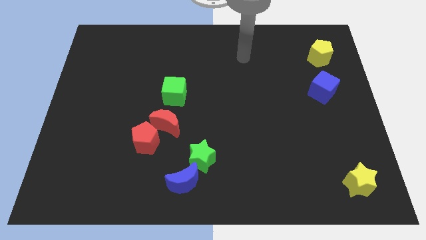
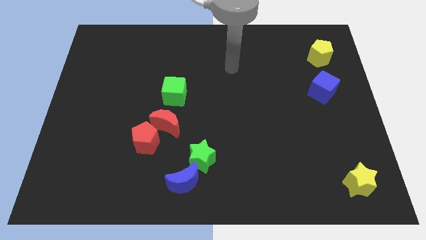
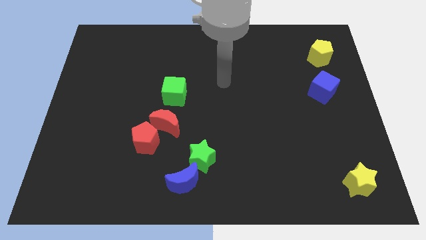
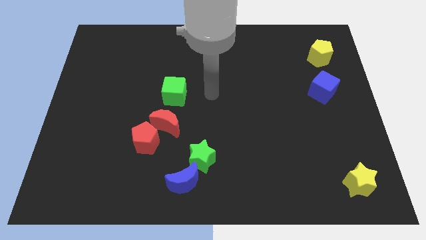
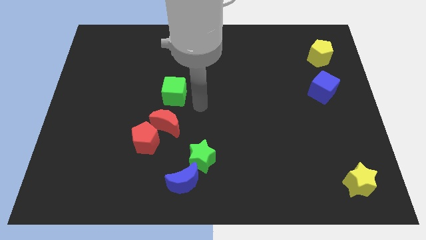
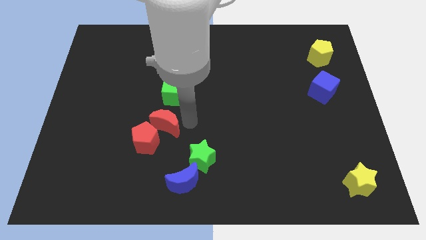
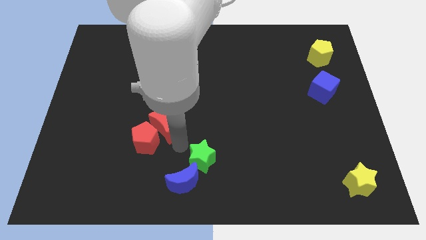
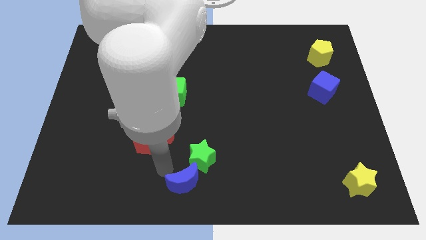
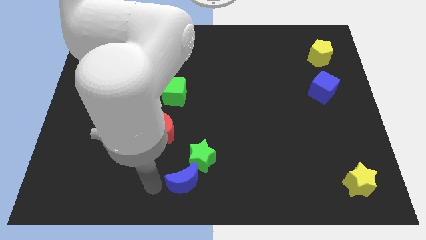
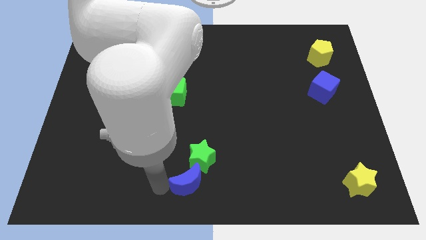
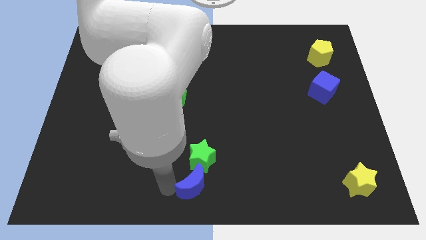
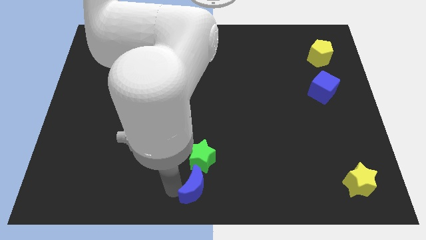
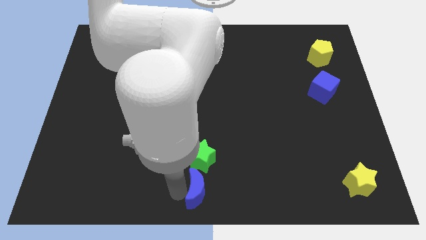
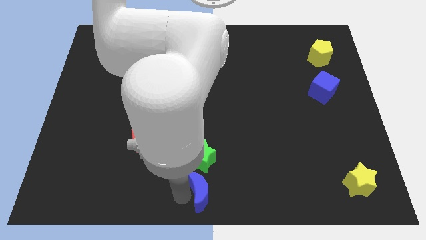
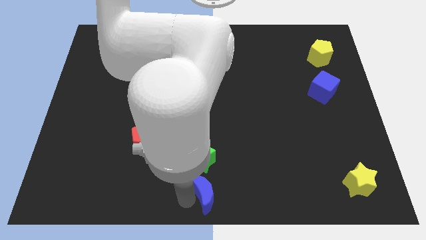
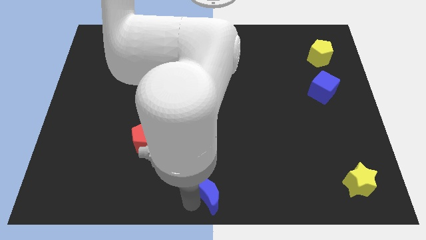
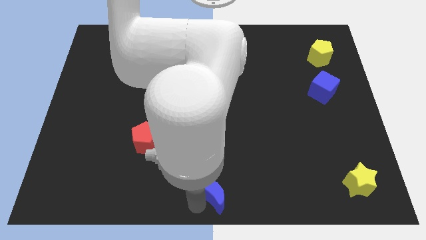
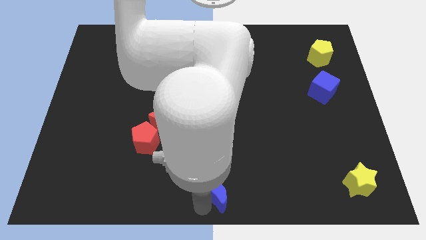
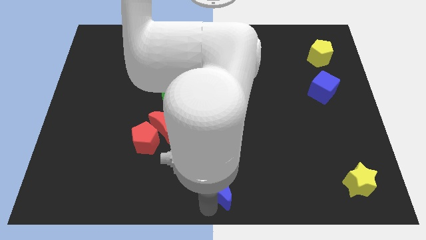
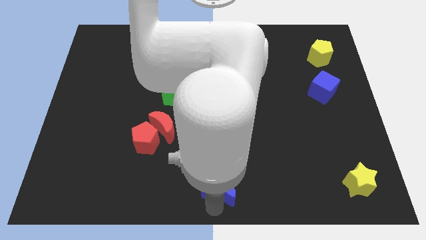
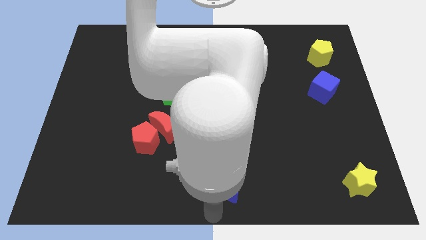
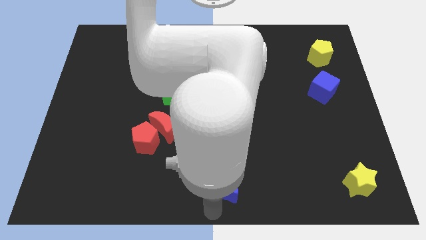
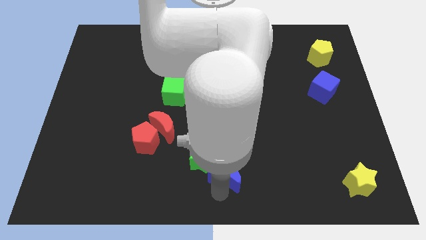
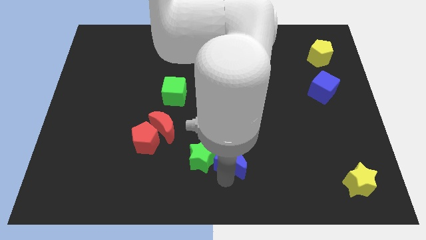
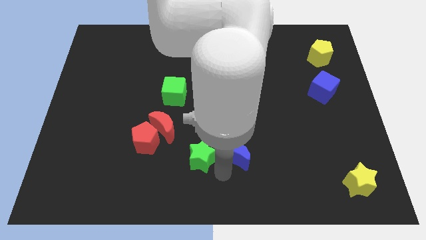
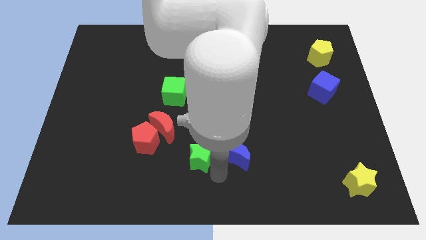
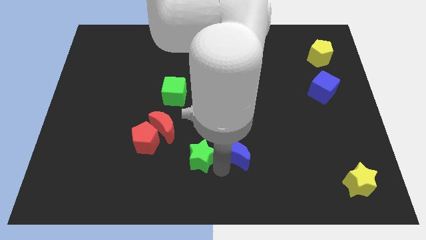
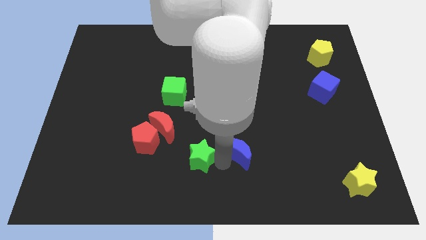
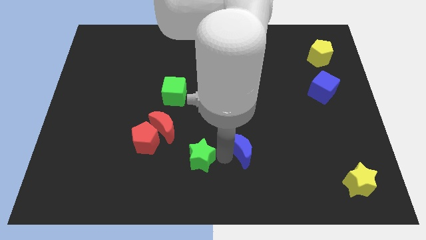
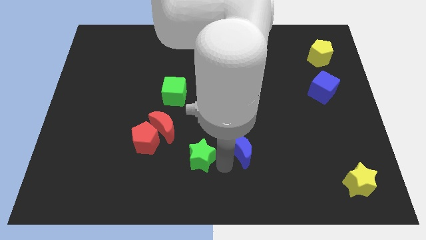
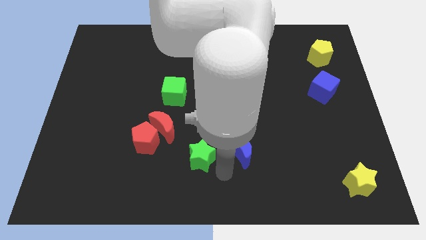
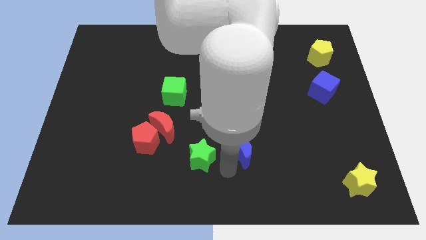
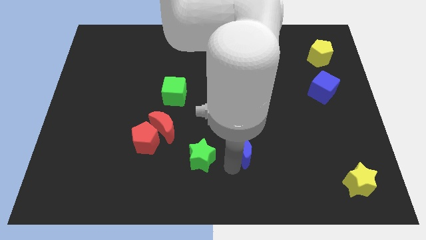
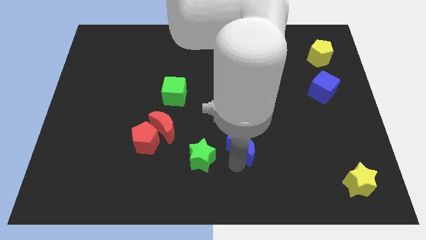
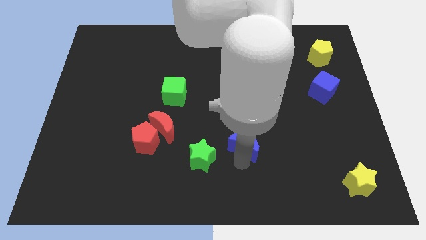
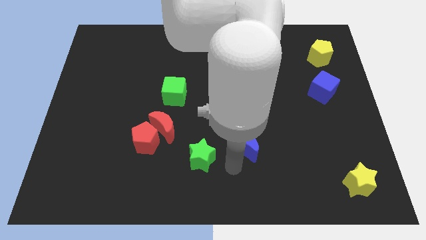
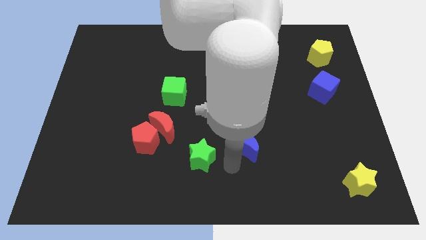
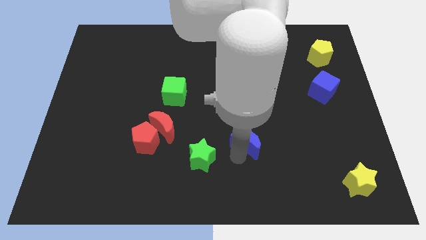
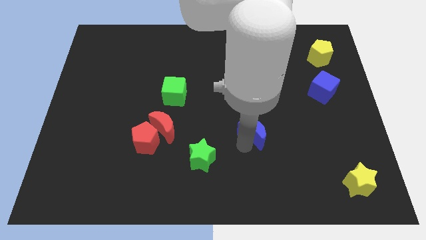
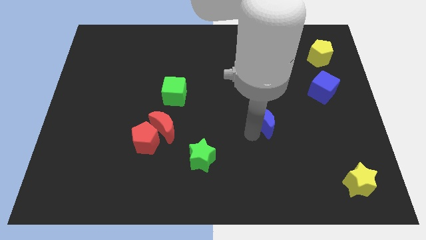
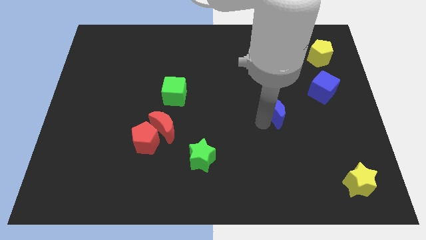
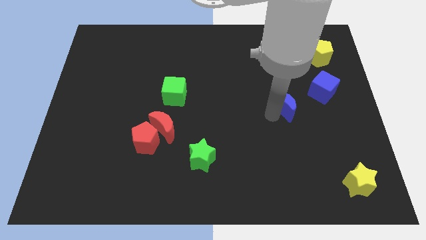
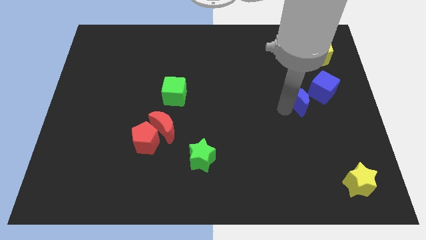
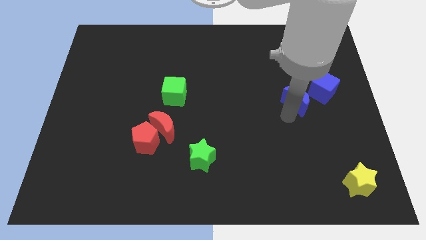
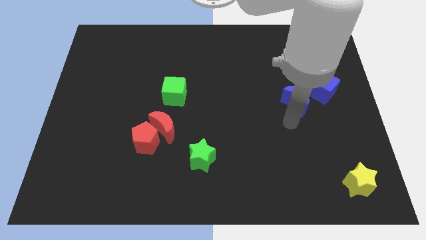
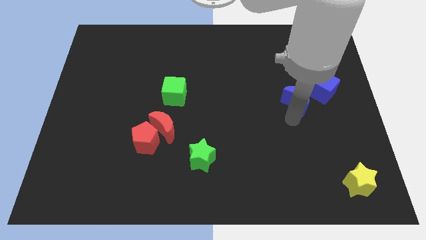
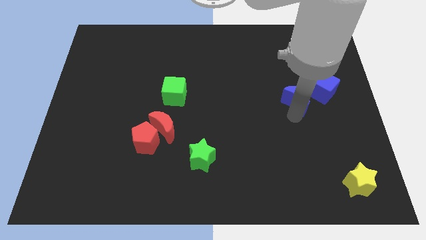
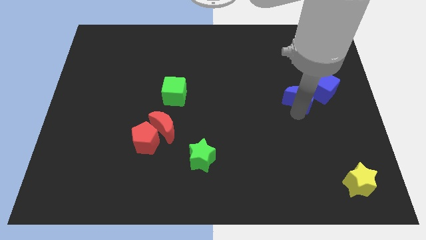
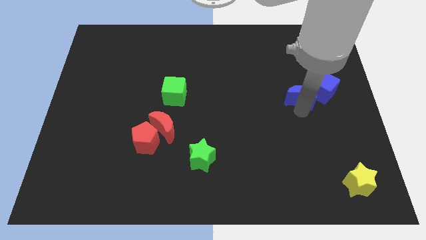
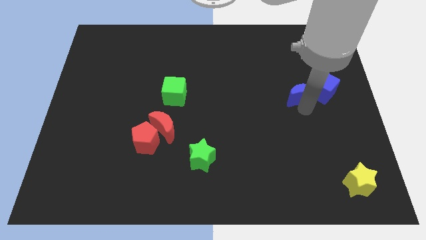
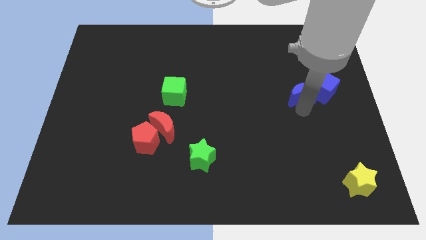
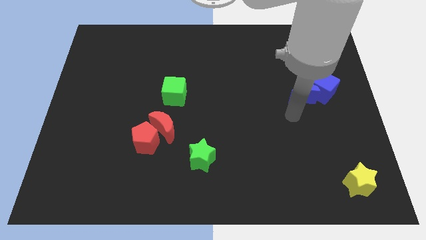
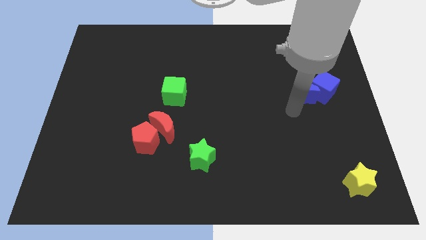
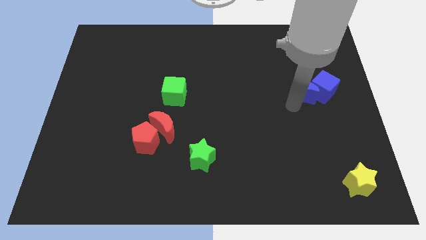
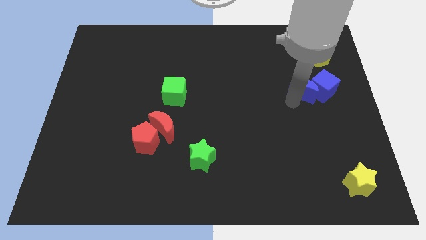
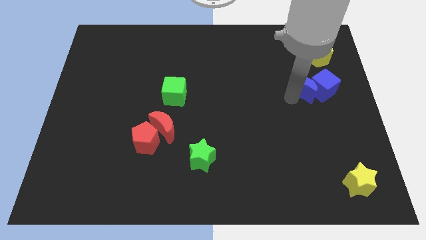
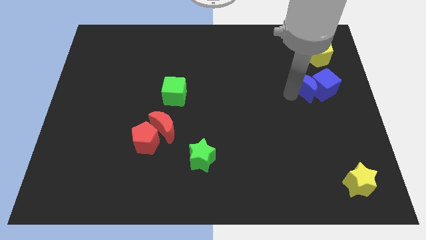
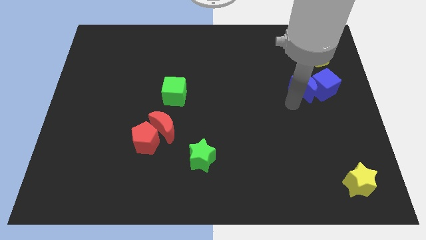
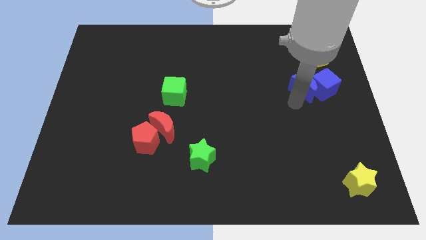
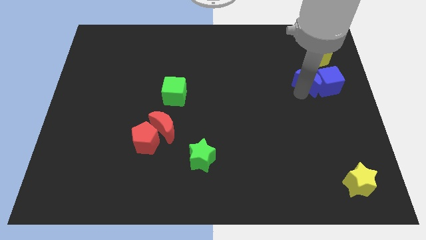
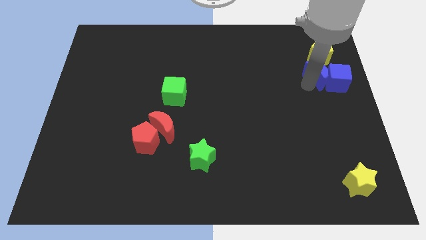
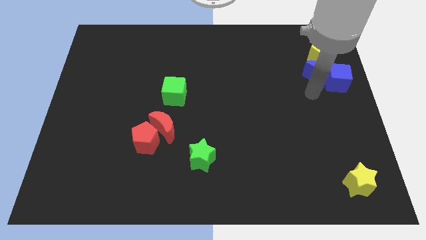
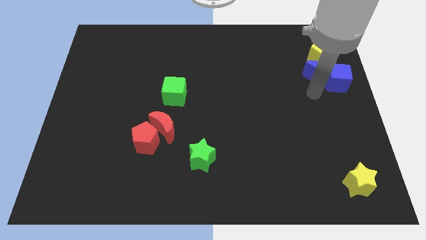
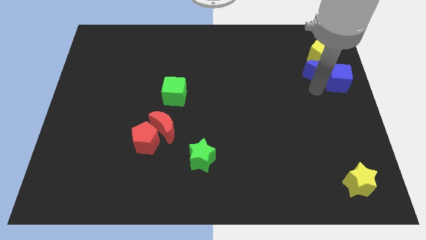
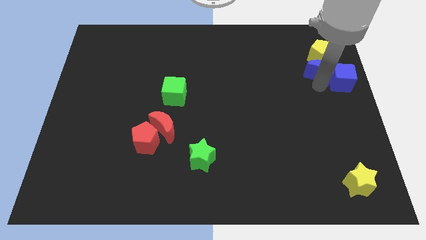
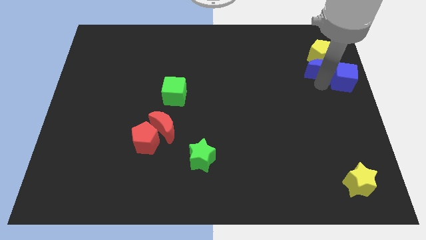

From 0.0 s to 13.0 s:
push the blue moon towards the yellow pentagon
